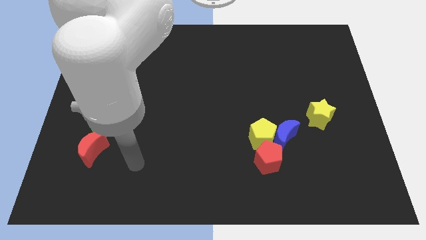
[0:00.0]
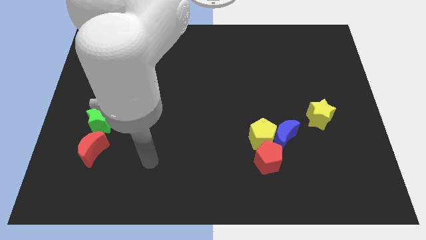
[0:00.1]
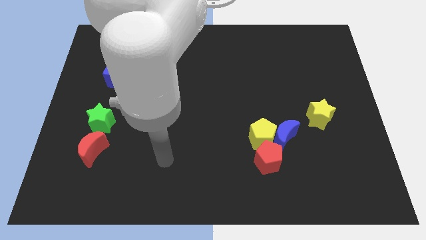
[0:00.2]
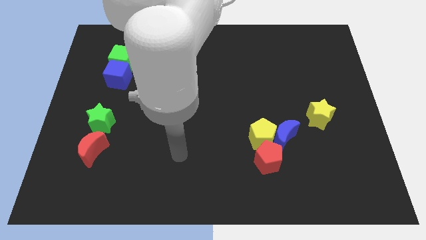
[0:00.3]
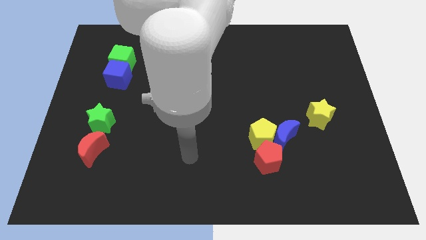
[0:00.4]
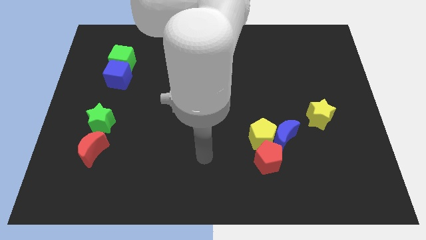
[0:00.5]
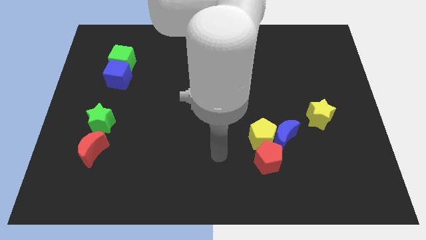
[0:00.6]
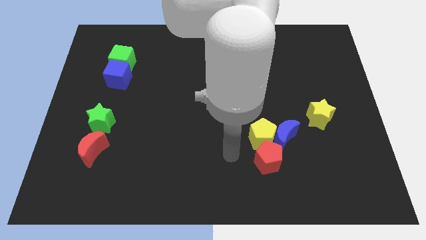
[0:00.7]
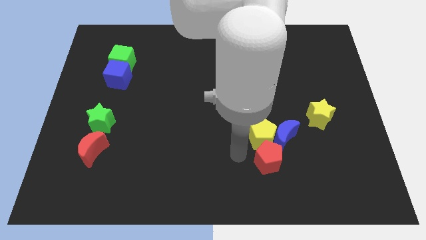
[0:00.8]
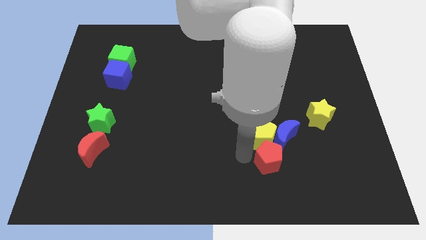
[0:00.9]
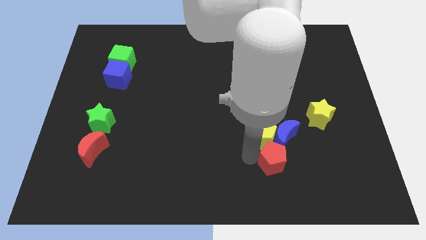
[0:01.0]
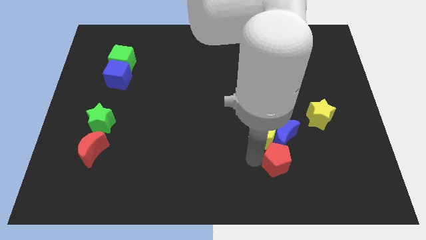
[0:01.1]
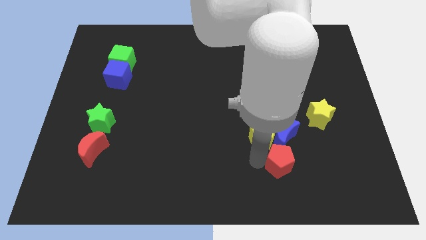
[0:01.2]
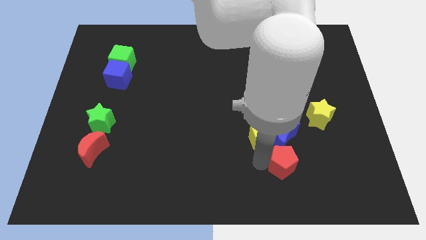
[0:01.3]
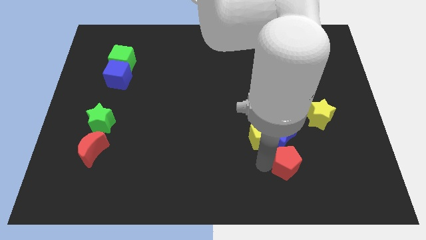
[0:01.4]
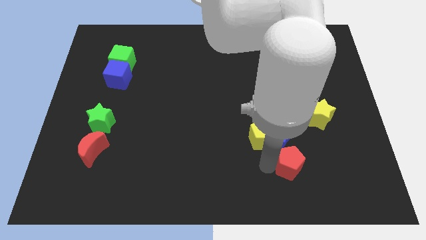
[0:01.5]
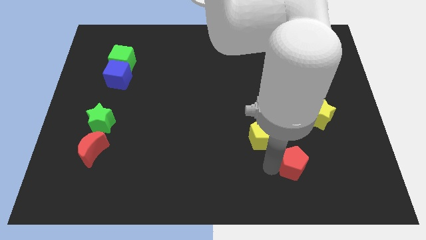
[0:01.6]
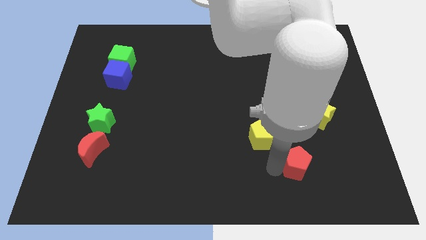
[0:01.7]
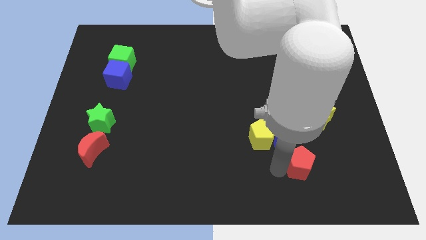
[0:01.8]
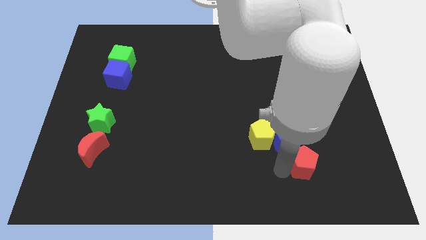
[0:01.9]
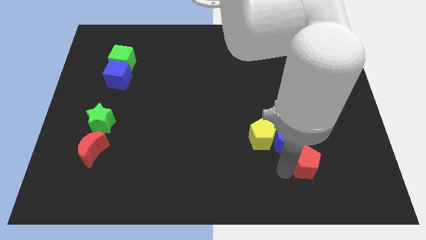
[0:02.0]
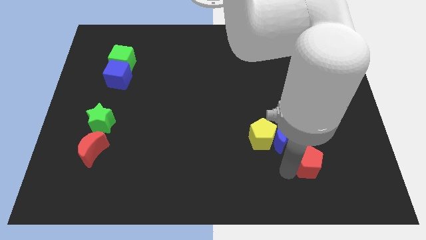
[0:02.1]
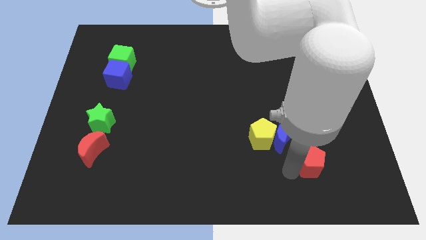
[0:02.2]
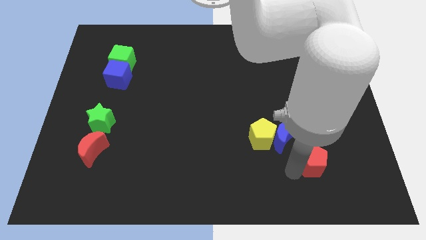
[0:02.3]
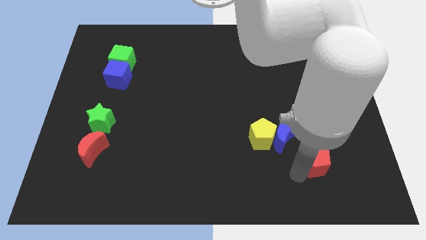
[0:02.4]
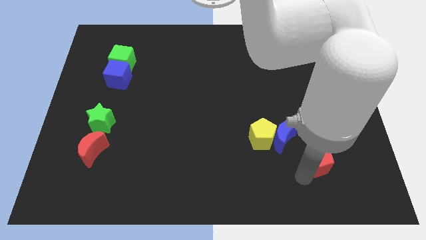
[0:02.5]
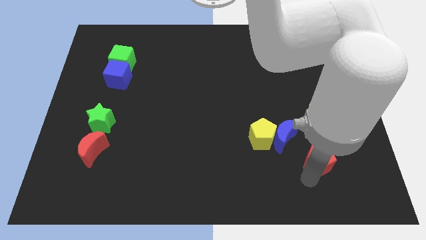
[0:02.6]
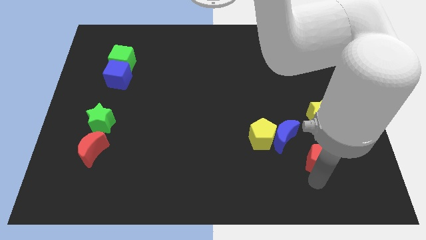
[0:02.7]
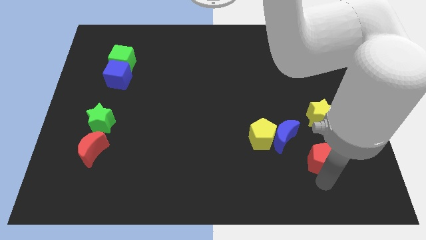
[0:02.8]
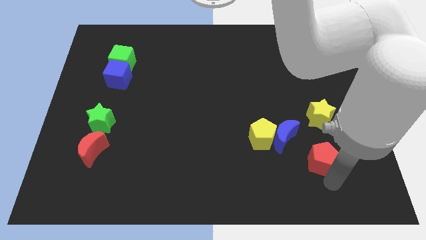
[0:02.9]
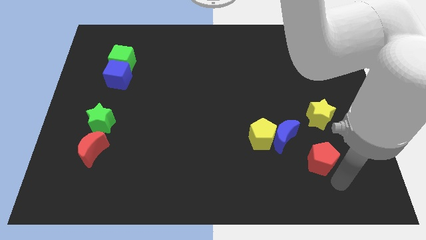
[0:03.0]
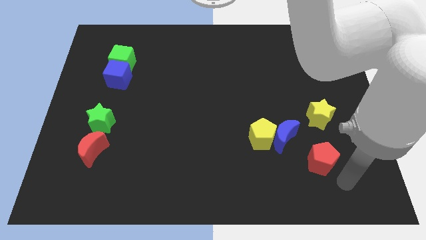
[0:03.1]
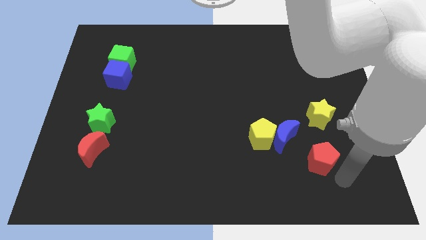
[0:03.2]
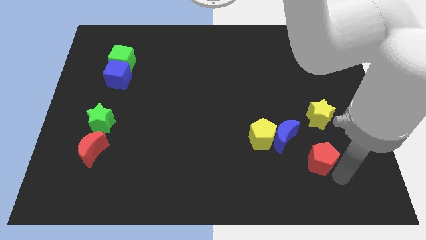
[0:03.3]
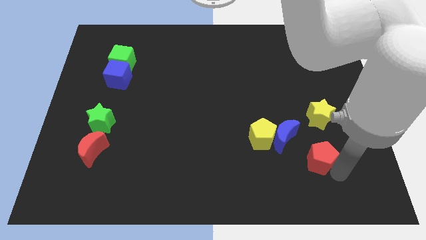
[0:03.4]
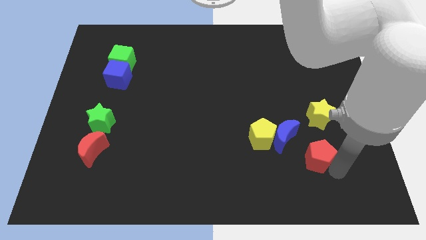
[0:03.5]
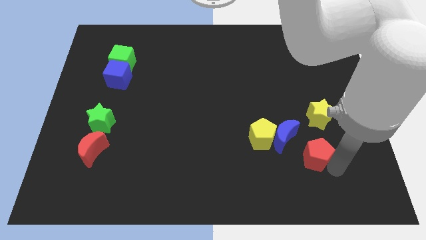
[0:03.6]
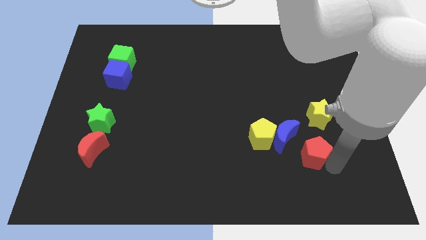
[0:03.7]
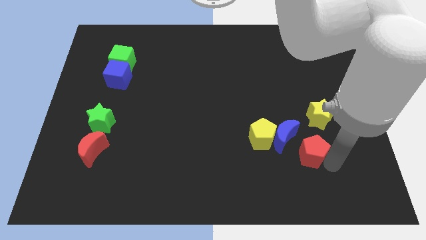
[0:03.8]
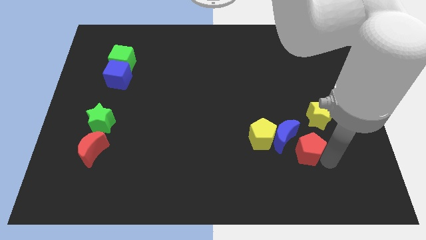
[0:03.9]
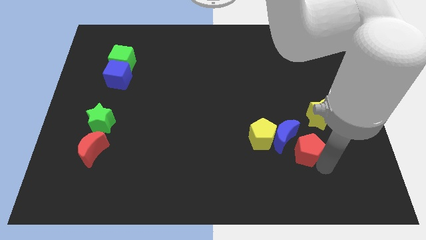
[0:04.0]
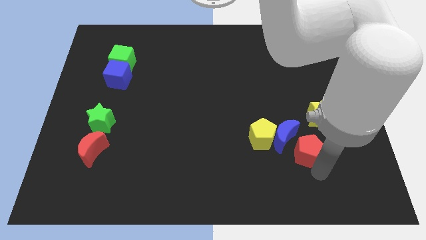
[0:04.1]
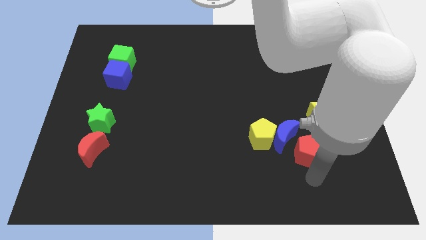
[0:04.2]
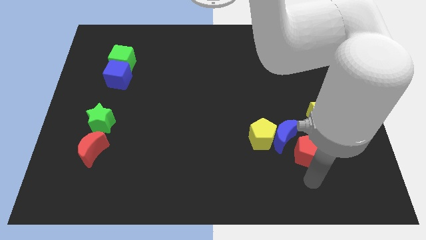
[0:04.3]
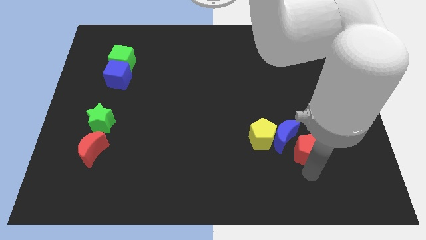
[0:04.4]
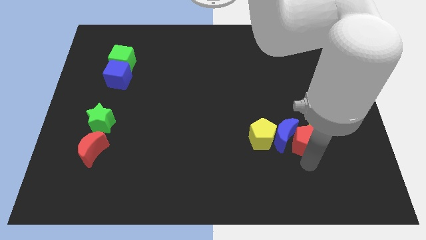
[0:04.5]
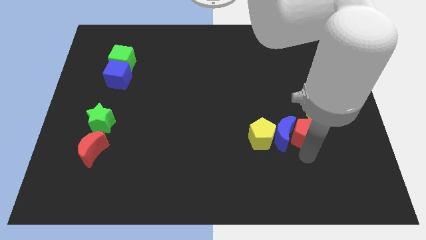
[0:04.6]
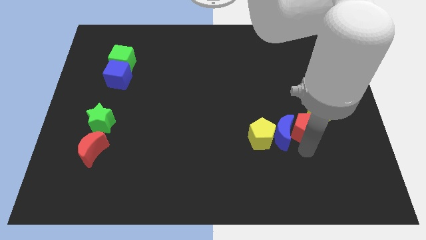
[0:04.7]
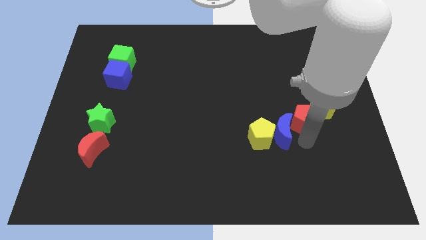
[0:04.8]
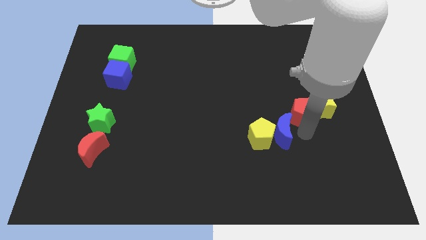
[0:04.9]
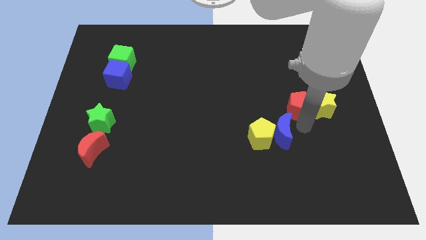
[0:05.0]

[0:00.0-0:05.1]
slide the red pentagon diagonally up and to the left of the yellow star

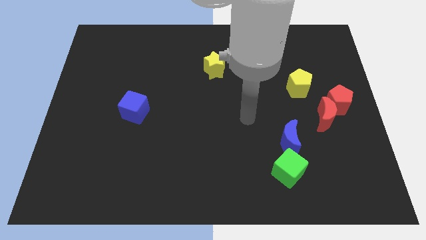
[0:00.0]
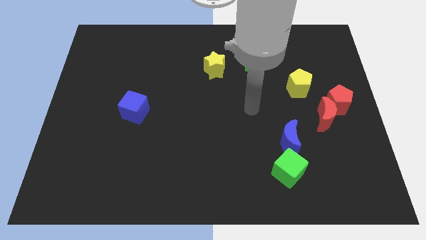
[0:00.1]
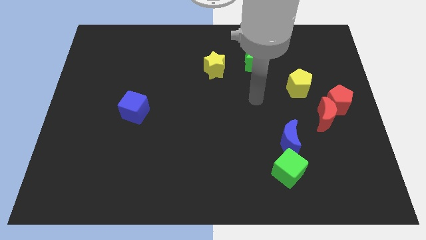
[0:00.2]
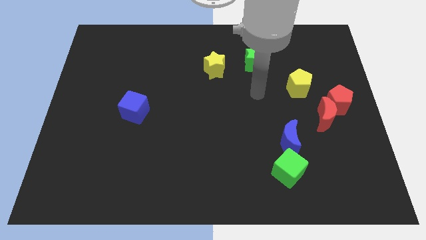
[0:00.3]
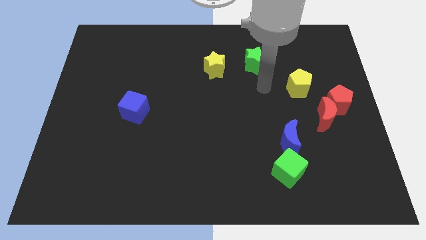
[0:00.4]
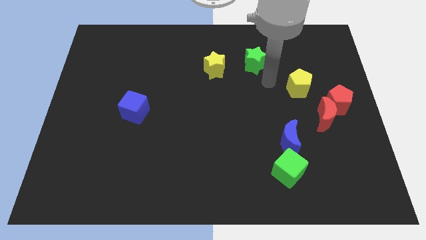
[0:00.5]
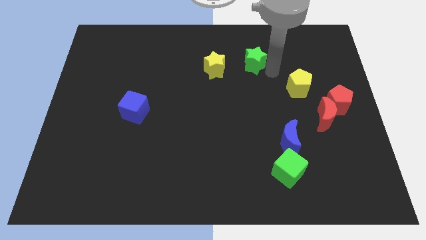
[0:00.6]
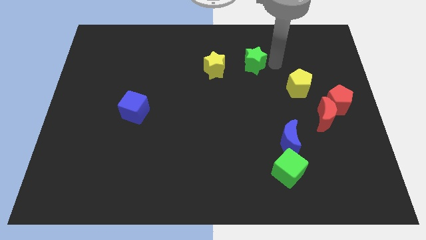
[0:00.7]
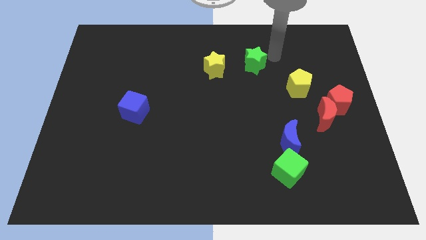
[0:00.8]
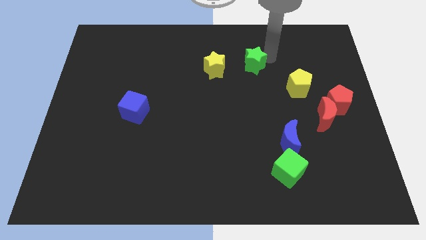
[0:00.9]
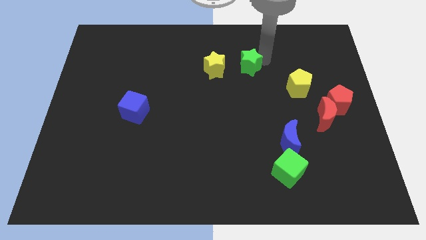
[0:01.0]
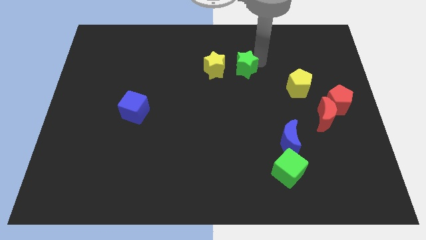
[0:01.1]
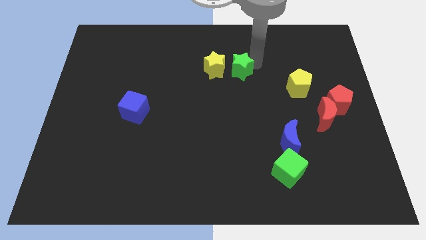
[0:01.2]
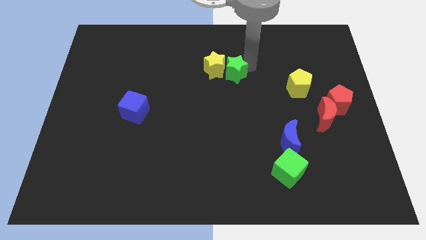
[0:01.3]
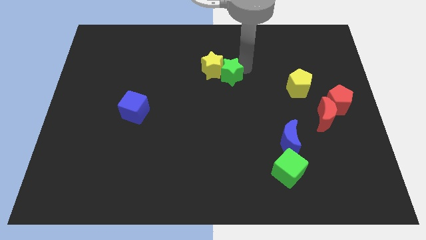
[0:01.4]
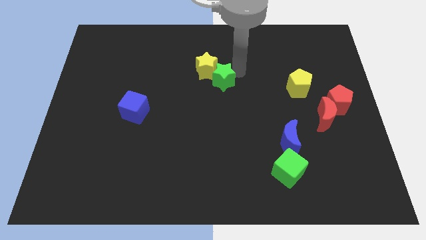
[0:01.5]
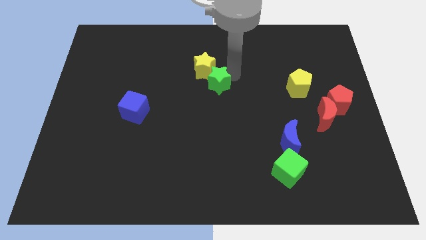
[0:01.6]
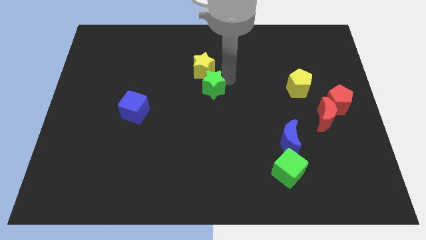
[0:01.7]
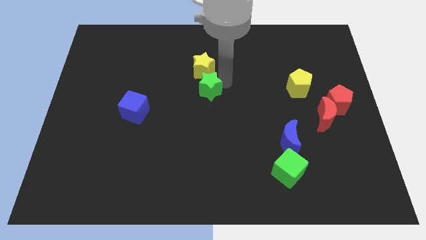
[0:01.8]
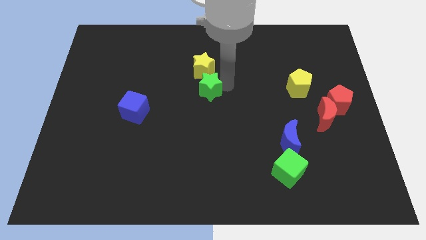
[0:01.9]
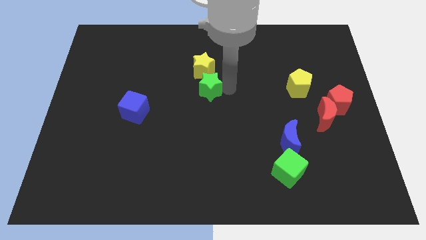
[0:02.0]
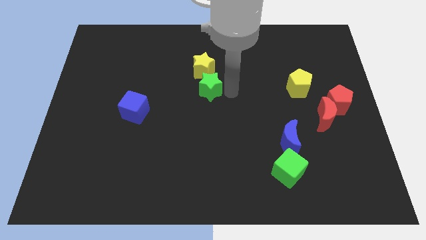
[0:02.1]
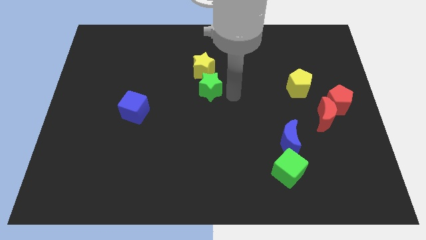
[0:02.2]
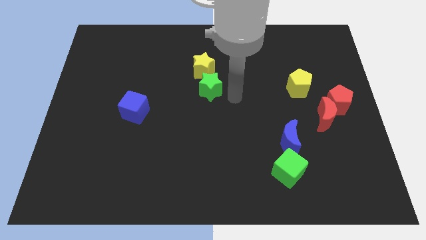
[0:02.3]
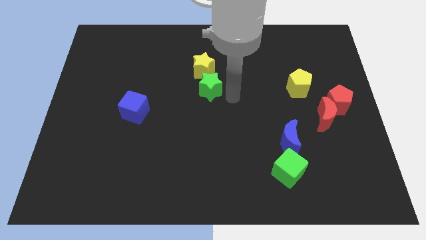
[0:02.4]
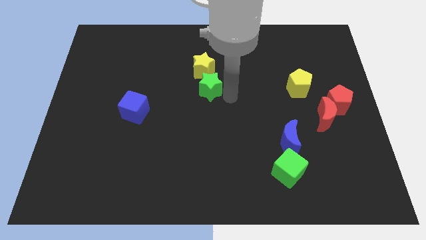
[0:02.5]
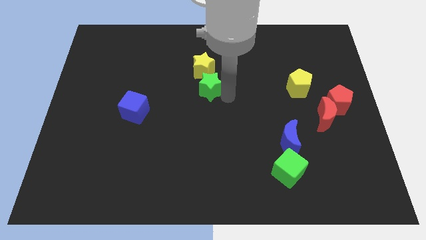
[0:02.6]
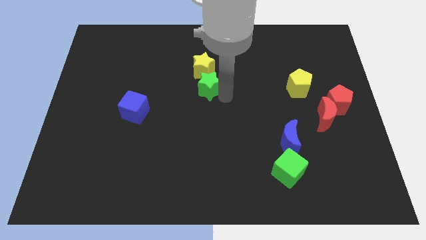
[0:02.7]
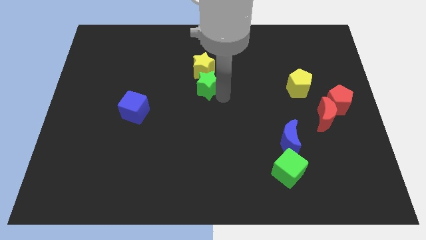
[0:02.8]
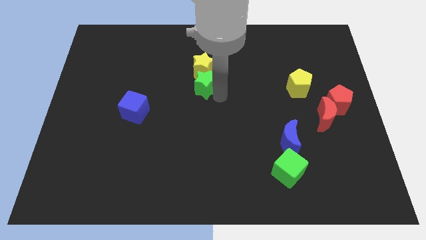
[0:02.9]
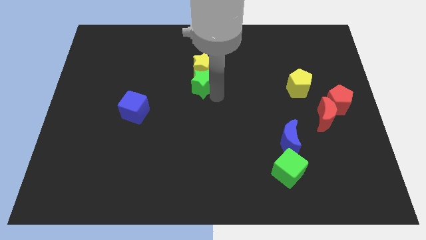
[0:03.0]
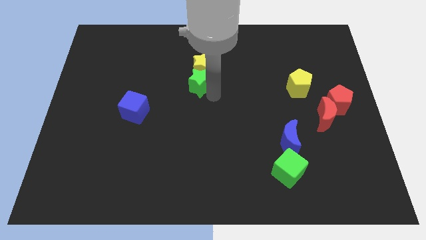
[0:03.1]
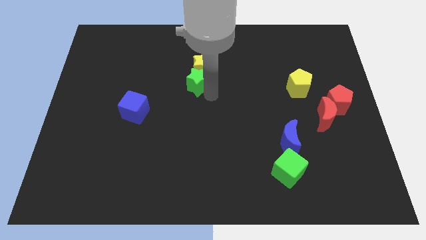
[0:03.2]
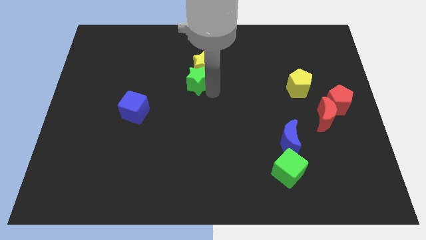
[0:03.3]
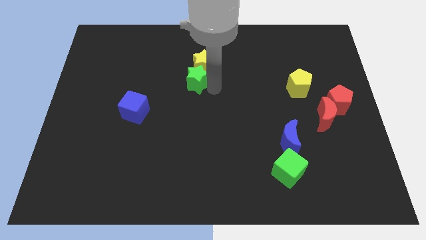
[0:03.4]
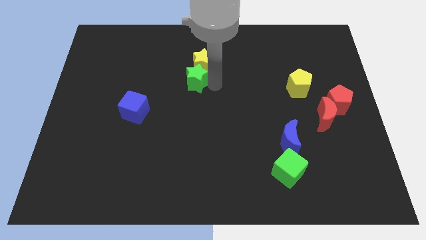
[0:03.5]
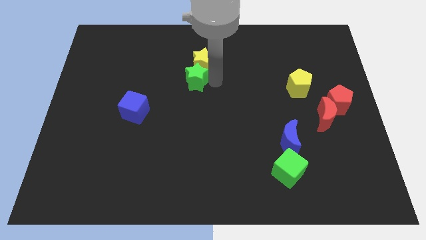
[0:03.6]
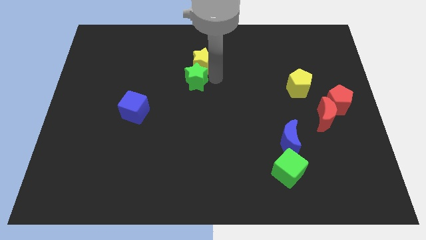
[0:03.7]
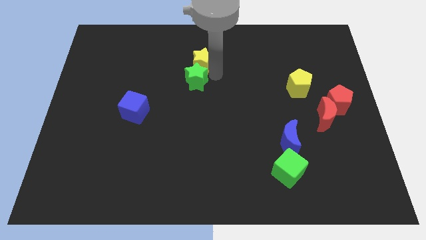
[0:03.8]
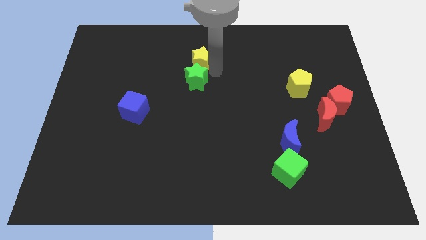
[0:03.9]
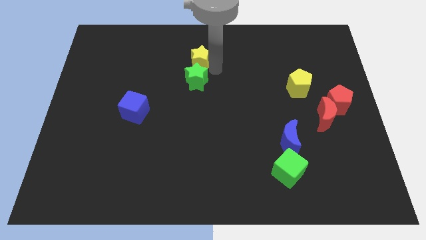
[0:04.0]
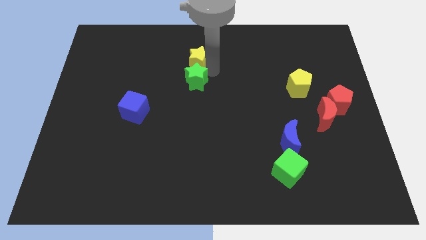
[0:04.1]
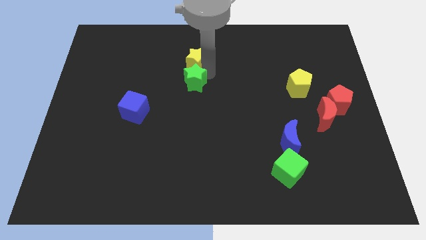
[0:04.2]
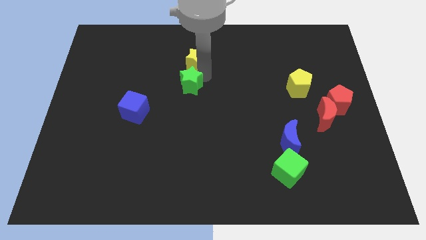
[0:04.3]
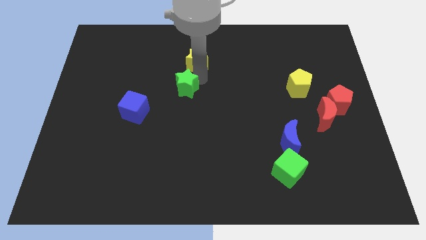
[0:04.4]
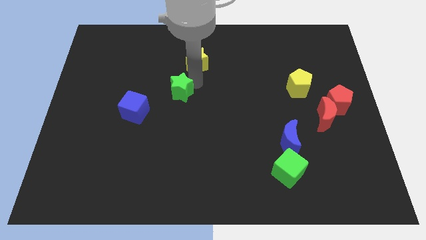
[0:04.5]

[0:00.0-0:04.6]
push the green star to the top right of the blue cube
